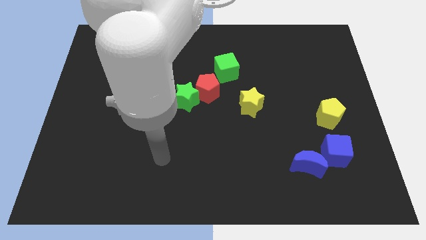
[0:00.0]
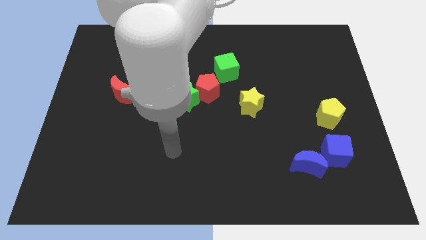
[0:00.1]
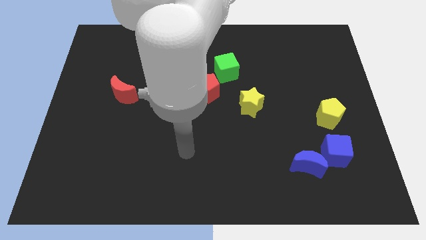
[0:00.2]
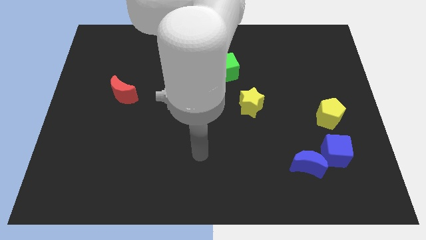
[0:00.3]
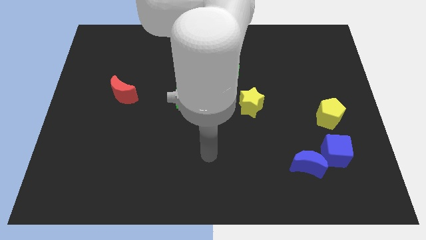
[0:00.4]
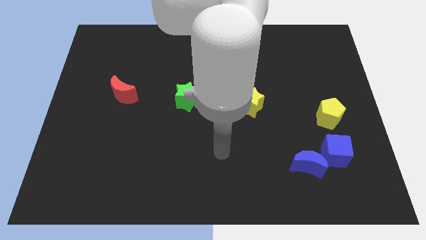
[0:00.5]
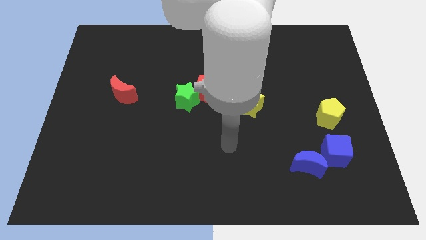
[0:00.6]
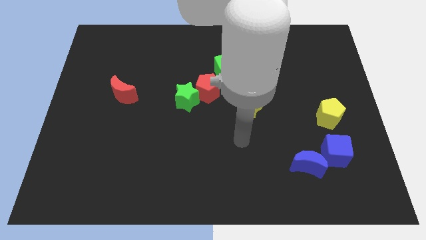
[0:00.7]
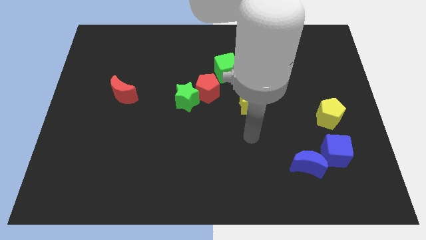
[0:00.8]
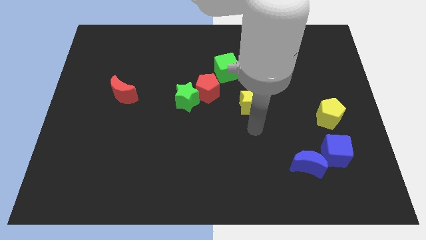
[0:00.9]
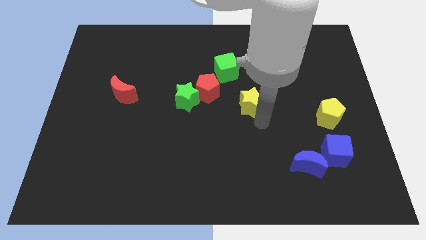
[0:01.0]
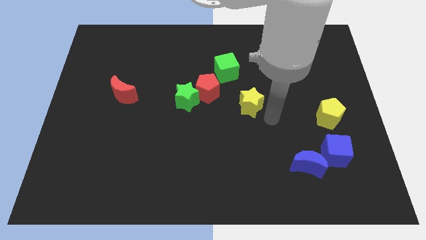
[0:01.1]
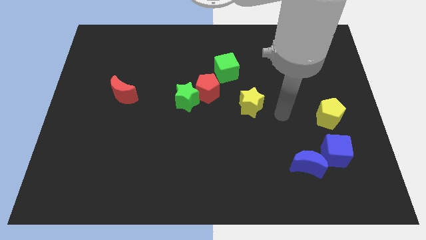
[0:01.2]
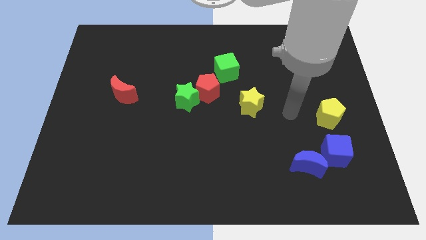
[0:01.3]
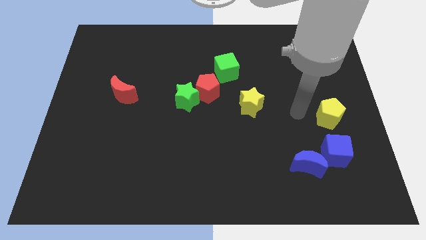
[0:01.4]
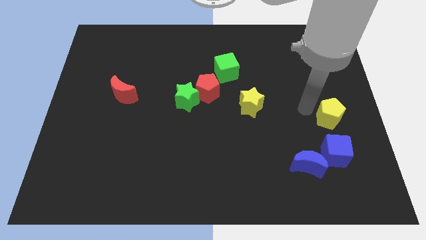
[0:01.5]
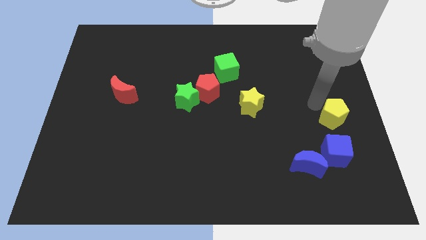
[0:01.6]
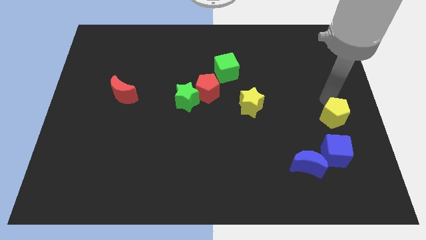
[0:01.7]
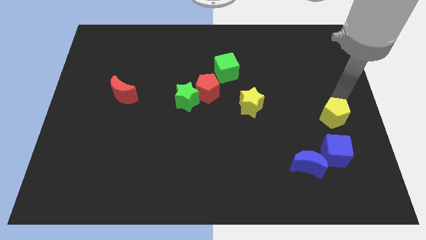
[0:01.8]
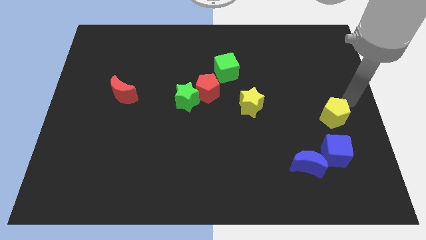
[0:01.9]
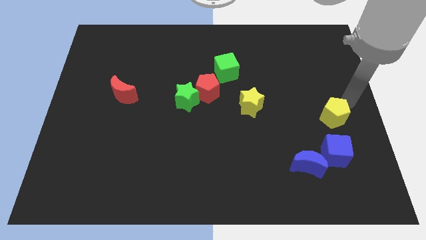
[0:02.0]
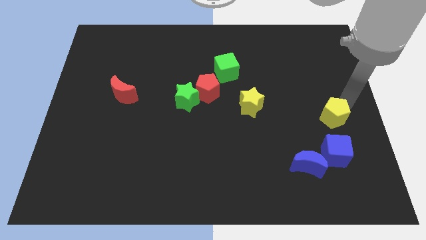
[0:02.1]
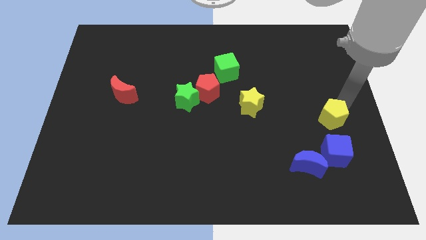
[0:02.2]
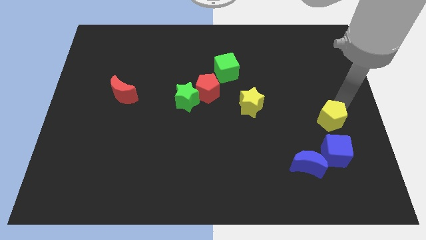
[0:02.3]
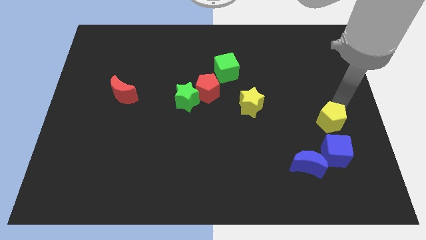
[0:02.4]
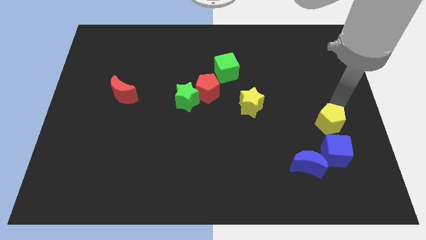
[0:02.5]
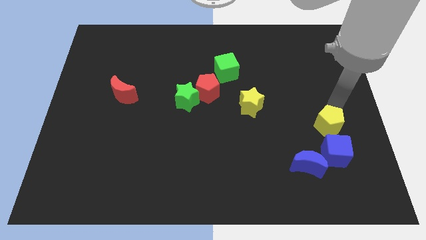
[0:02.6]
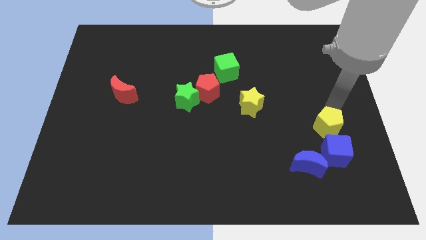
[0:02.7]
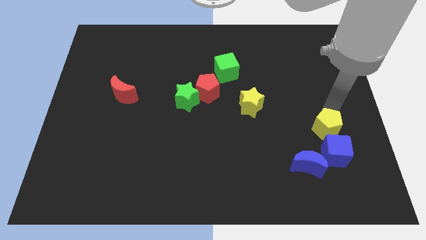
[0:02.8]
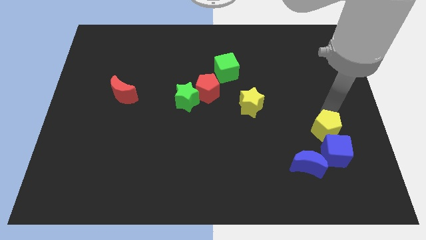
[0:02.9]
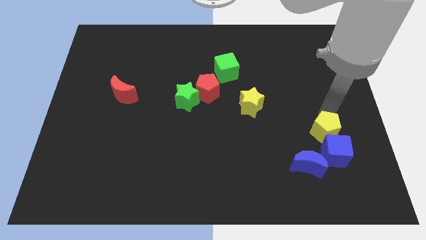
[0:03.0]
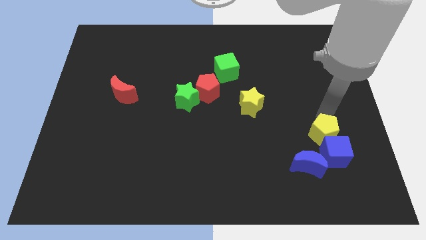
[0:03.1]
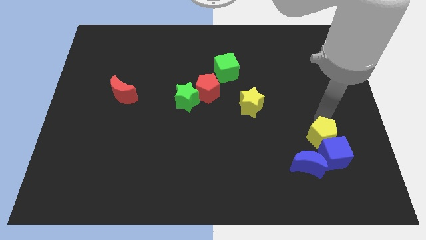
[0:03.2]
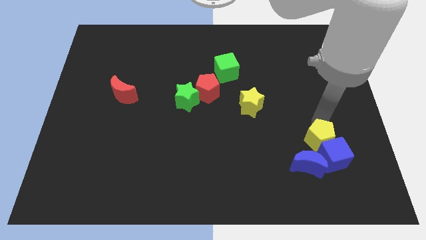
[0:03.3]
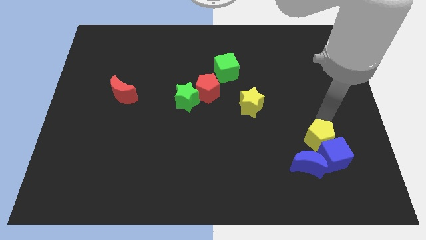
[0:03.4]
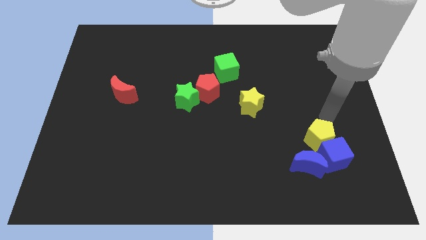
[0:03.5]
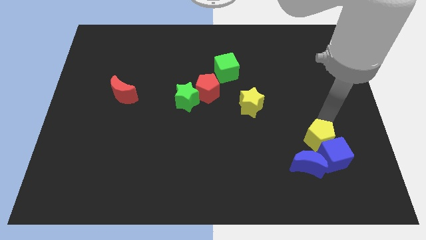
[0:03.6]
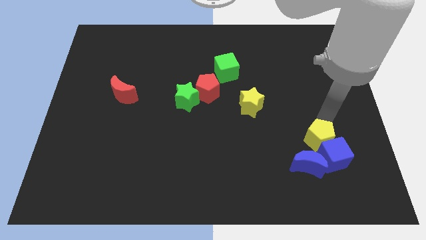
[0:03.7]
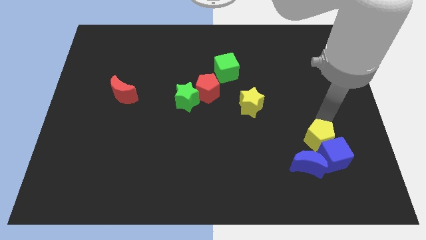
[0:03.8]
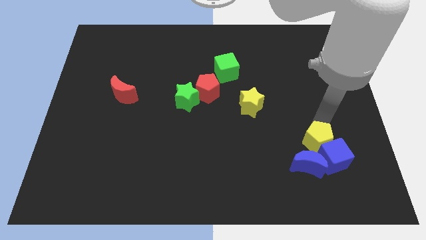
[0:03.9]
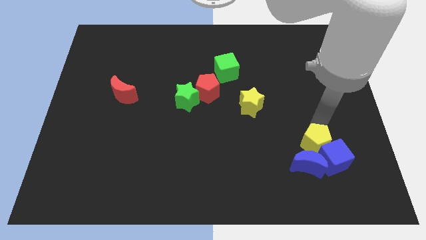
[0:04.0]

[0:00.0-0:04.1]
put the yellow pentagon close to the blue moon

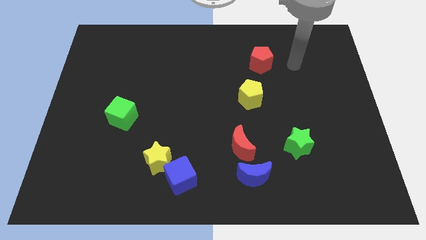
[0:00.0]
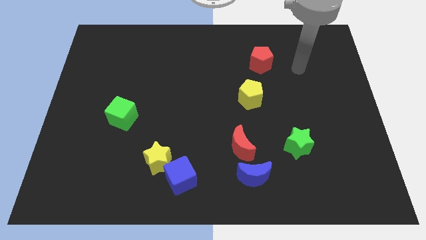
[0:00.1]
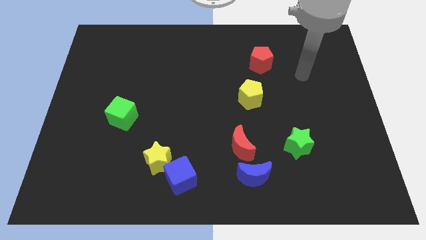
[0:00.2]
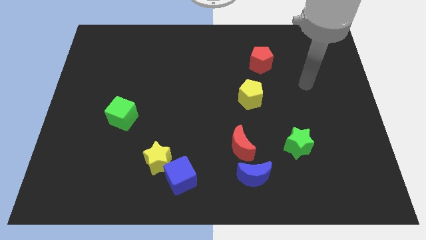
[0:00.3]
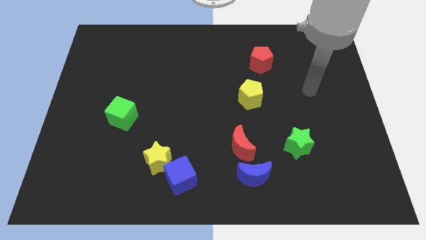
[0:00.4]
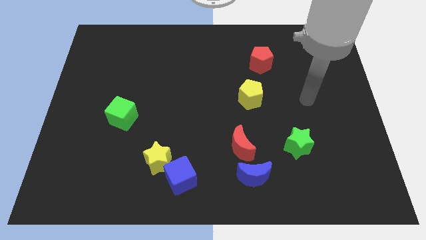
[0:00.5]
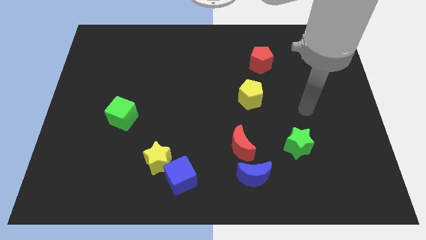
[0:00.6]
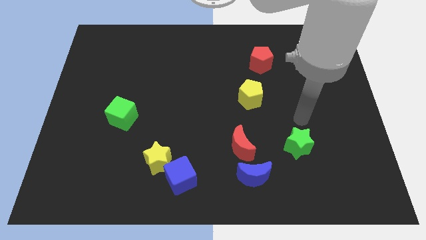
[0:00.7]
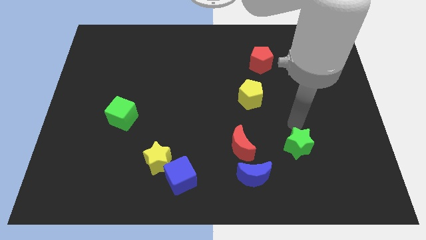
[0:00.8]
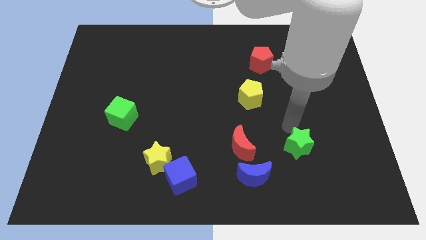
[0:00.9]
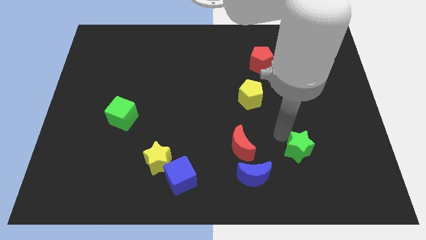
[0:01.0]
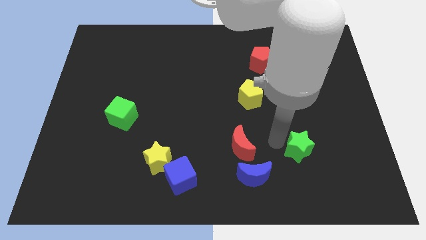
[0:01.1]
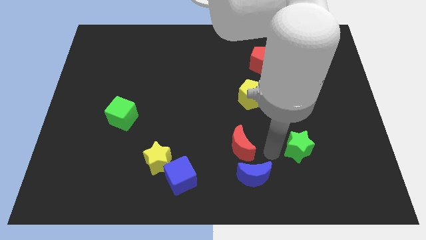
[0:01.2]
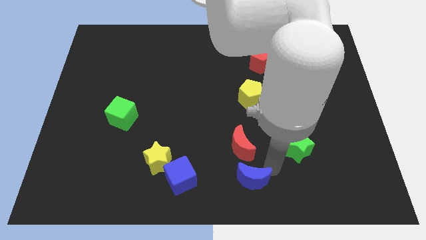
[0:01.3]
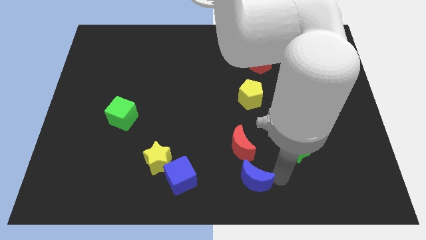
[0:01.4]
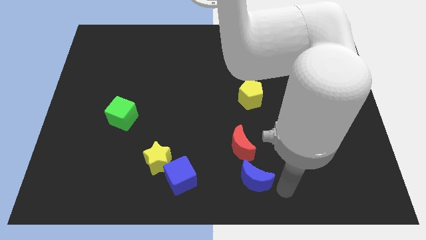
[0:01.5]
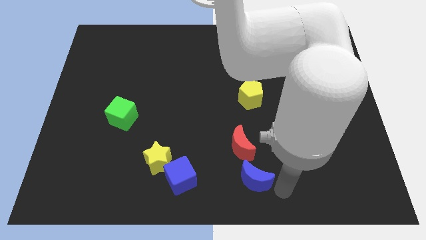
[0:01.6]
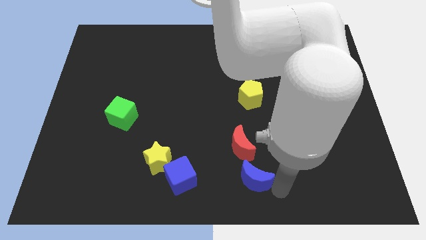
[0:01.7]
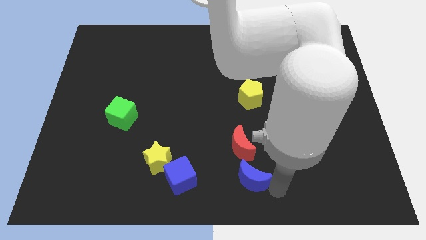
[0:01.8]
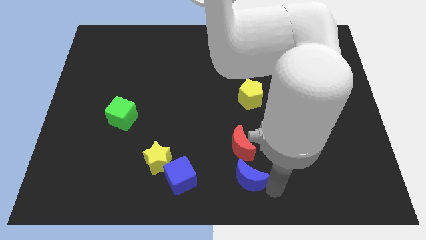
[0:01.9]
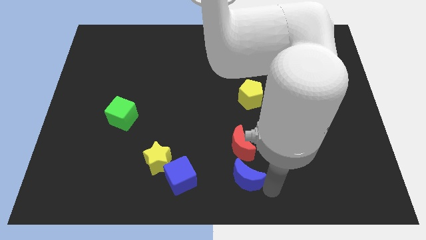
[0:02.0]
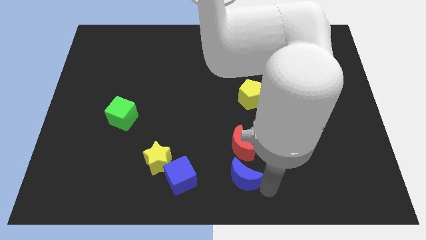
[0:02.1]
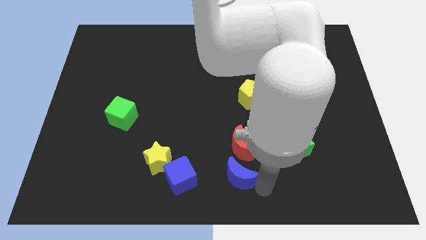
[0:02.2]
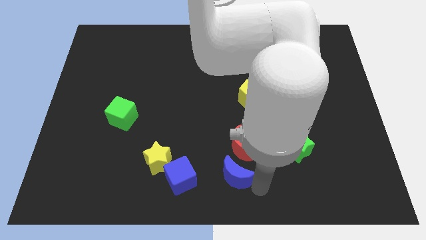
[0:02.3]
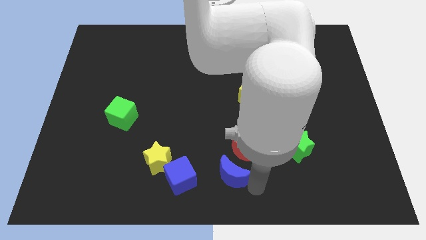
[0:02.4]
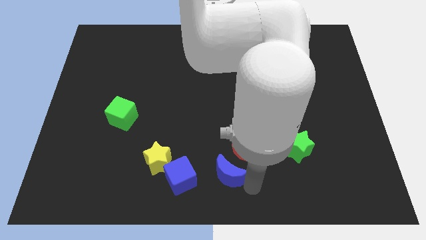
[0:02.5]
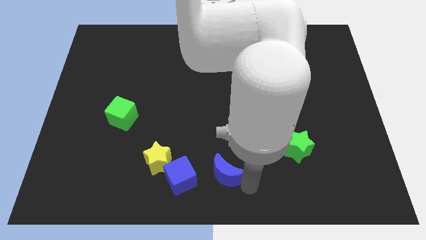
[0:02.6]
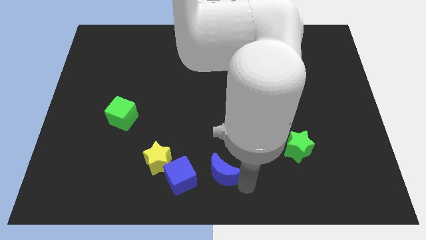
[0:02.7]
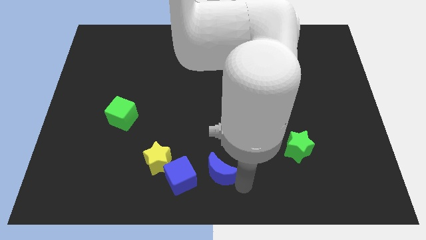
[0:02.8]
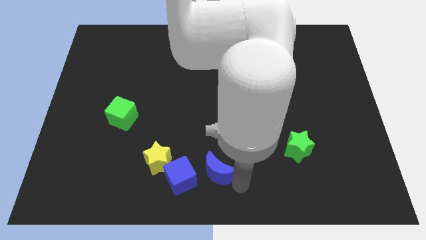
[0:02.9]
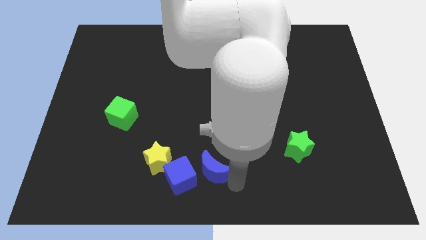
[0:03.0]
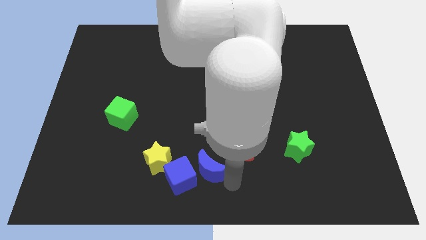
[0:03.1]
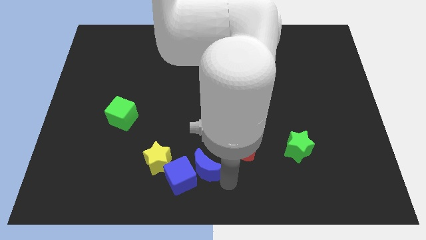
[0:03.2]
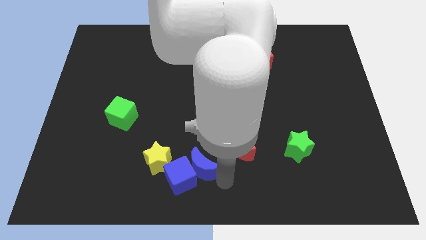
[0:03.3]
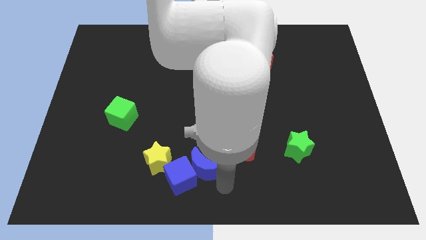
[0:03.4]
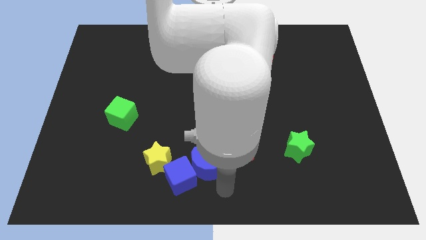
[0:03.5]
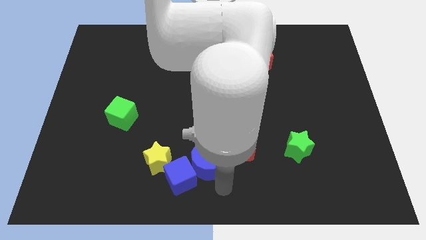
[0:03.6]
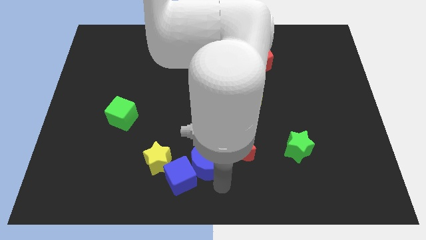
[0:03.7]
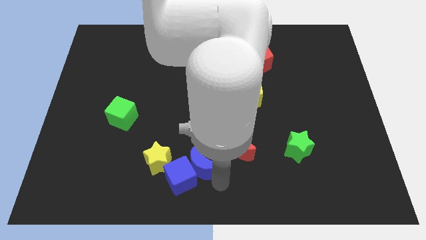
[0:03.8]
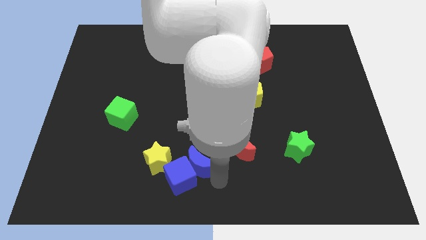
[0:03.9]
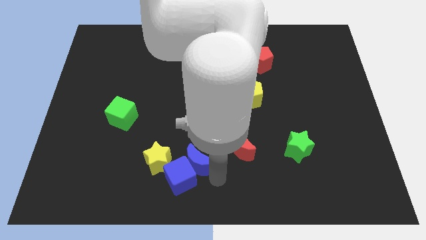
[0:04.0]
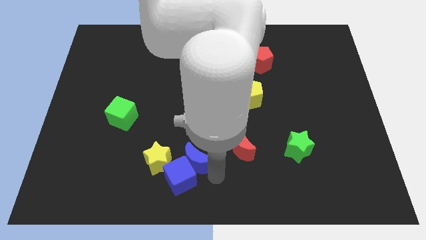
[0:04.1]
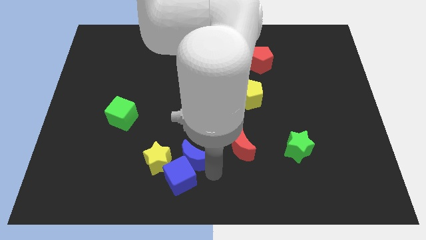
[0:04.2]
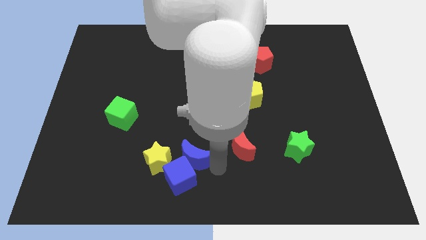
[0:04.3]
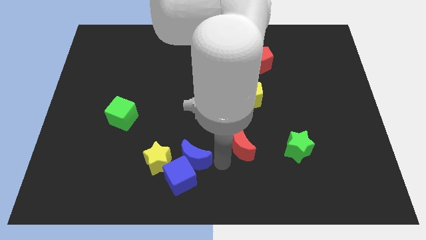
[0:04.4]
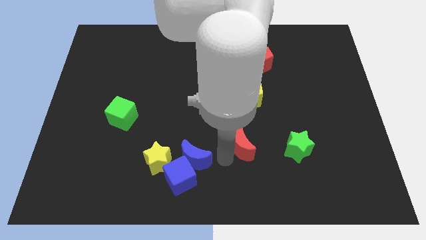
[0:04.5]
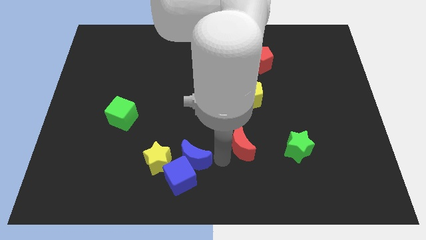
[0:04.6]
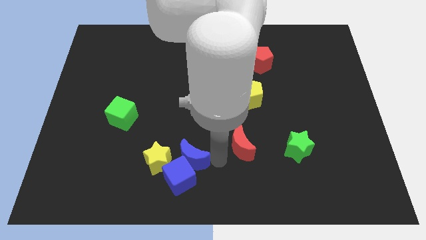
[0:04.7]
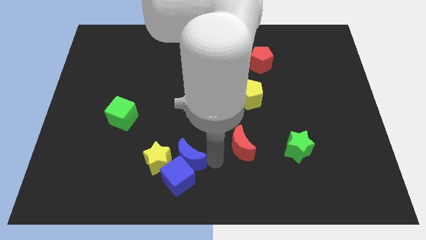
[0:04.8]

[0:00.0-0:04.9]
slide the blue moon to the yellow star
